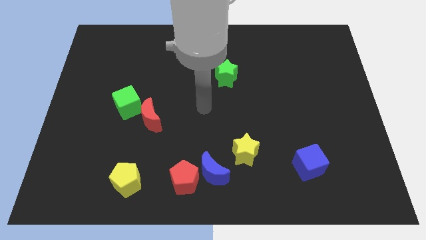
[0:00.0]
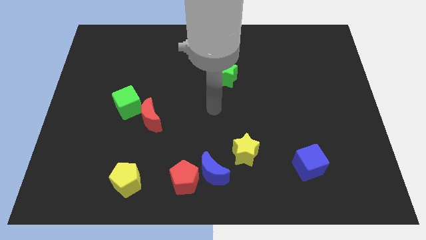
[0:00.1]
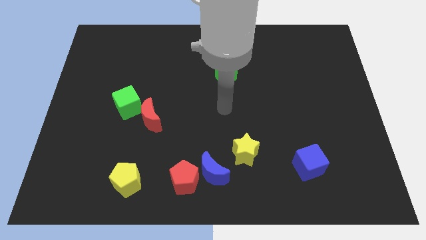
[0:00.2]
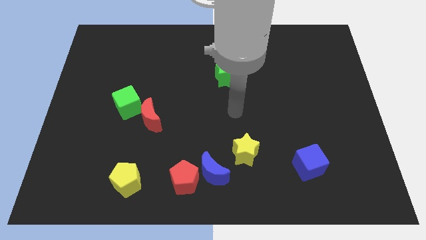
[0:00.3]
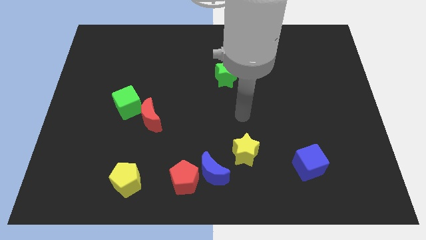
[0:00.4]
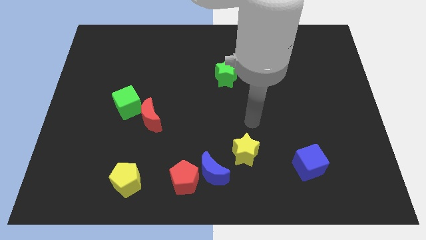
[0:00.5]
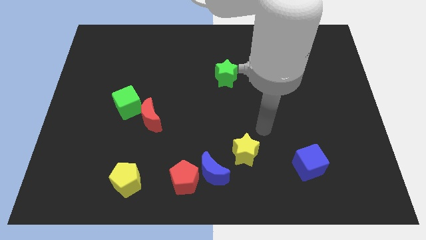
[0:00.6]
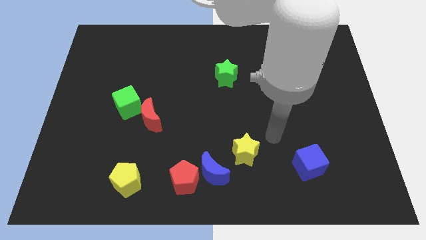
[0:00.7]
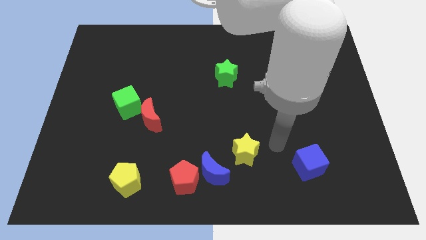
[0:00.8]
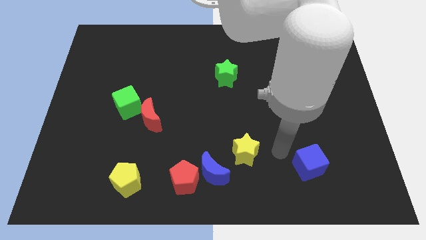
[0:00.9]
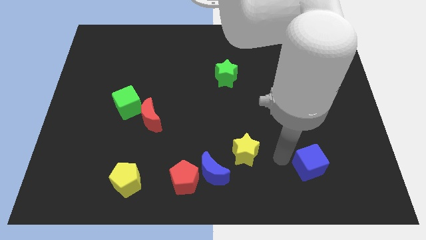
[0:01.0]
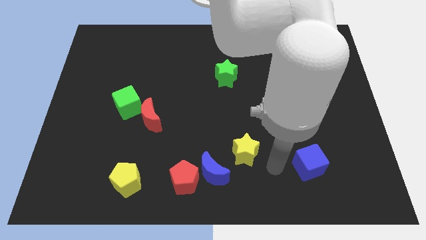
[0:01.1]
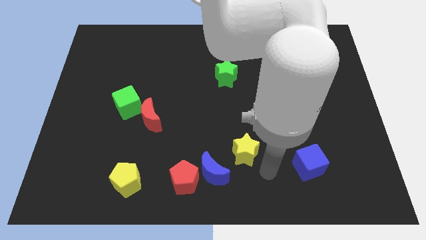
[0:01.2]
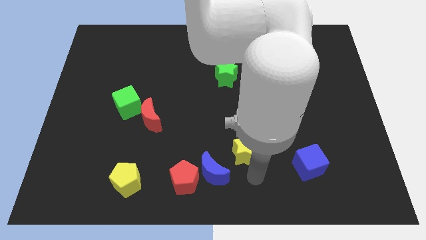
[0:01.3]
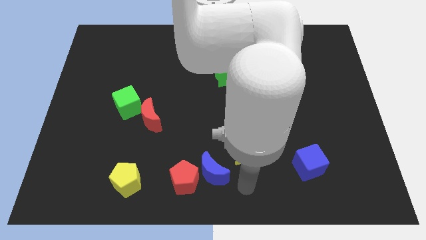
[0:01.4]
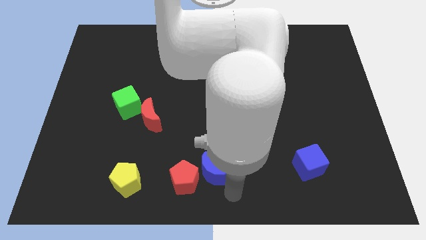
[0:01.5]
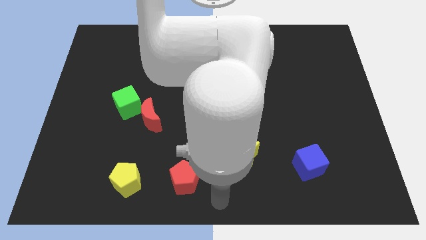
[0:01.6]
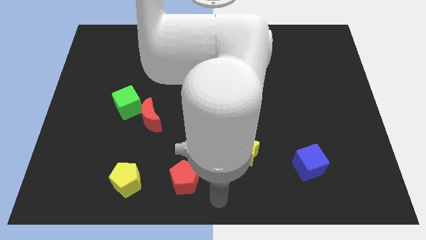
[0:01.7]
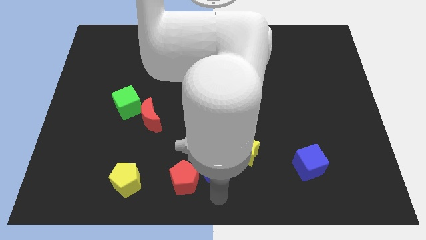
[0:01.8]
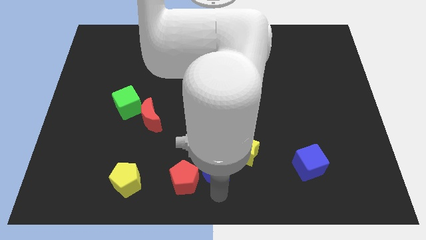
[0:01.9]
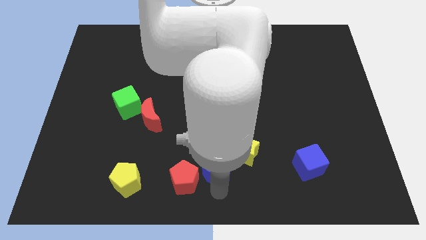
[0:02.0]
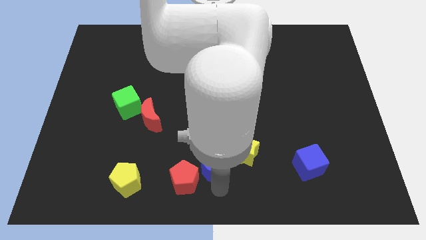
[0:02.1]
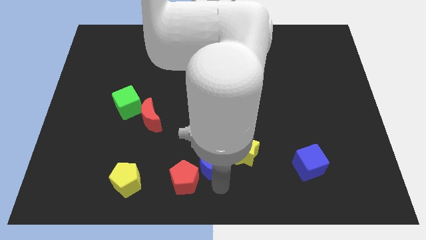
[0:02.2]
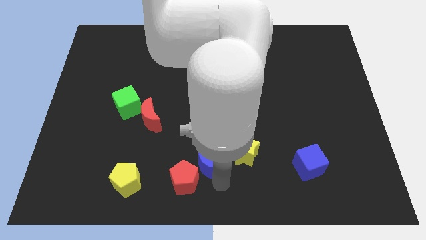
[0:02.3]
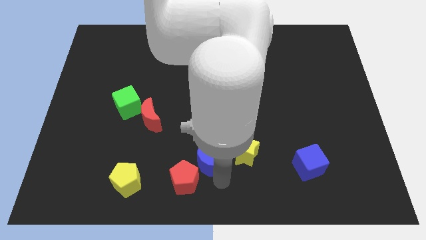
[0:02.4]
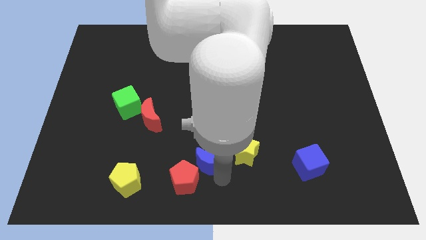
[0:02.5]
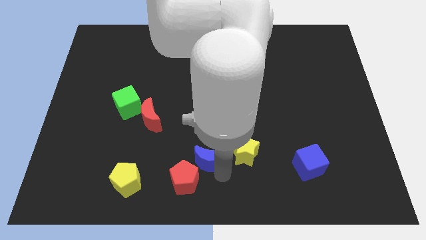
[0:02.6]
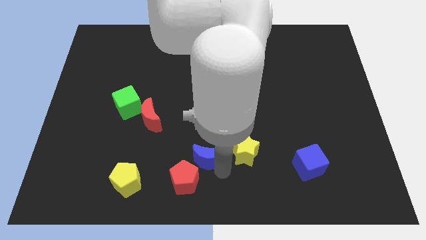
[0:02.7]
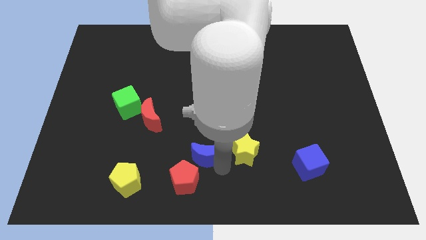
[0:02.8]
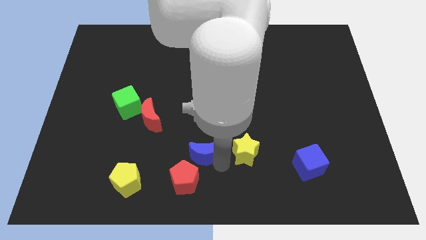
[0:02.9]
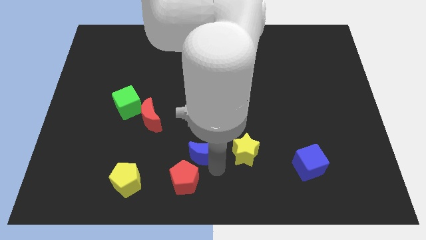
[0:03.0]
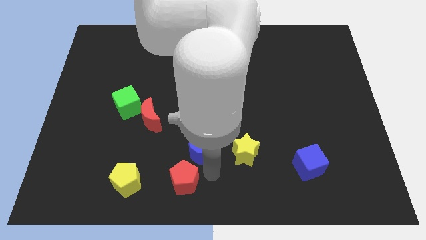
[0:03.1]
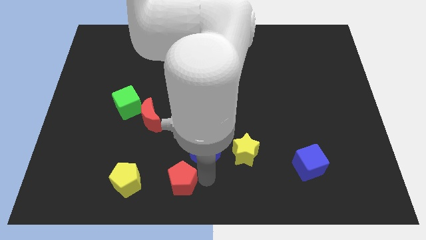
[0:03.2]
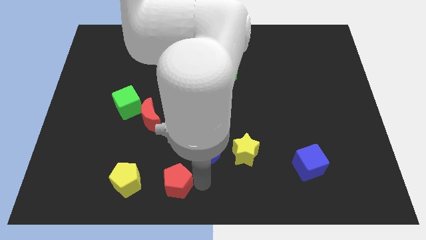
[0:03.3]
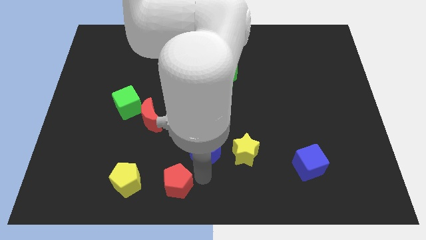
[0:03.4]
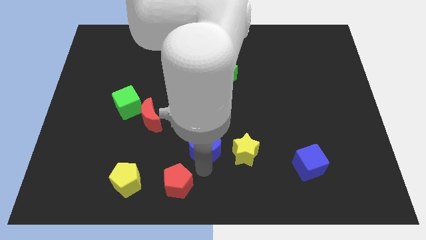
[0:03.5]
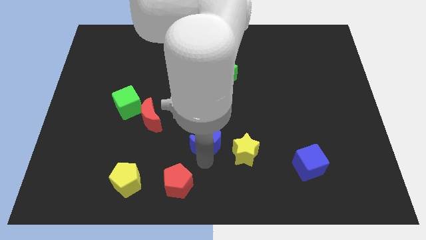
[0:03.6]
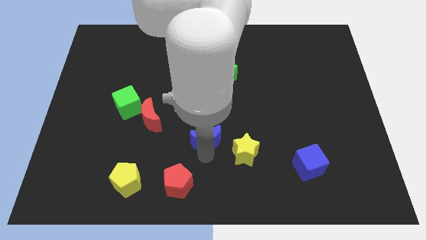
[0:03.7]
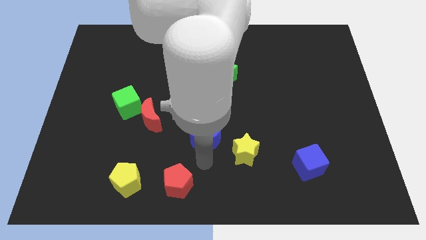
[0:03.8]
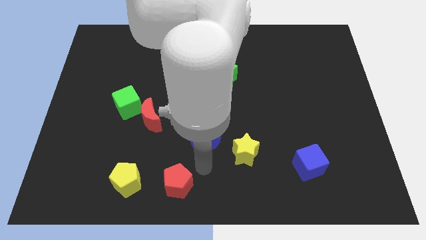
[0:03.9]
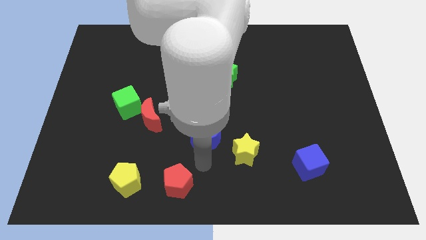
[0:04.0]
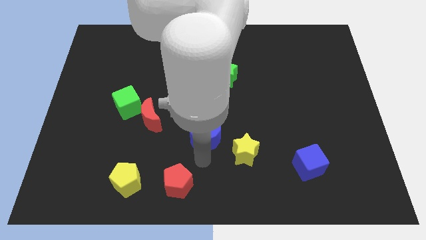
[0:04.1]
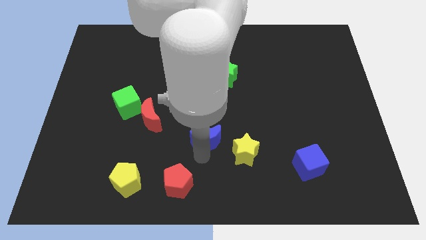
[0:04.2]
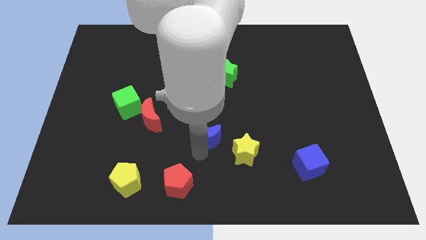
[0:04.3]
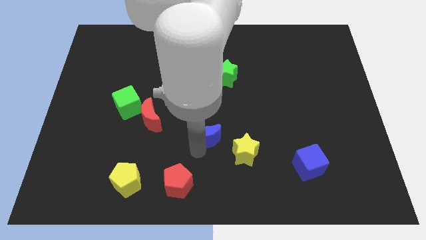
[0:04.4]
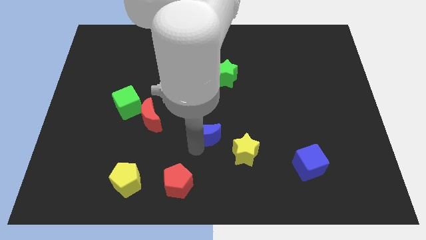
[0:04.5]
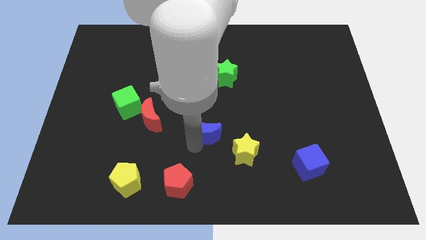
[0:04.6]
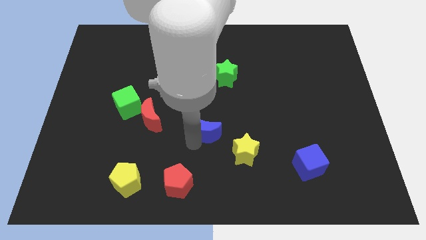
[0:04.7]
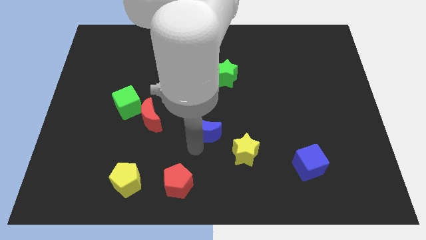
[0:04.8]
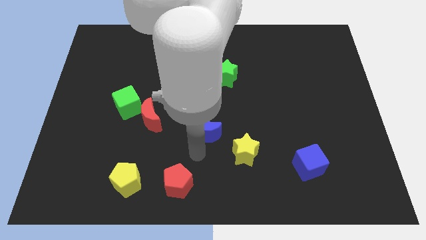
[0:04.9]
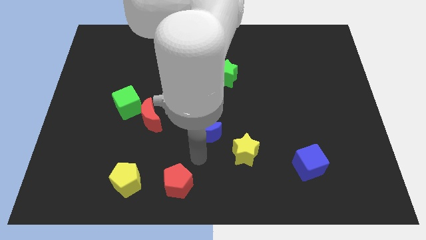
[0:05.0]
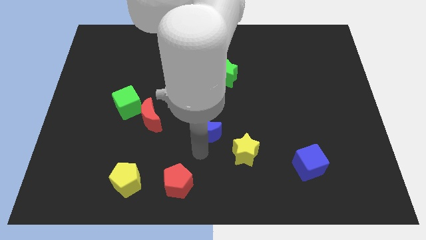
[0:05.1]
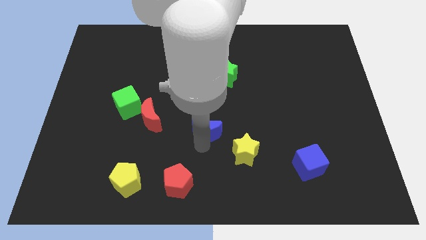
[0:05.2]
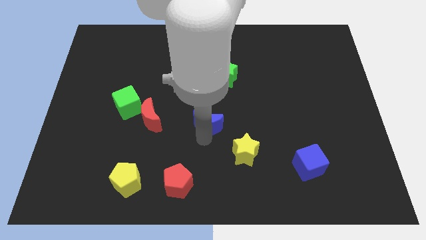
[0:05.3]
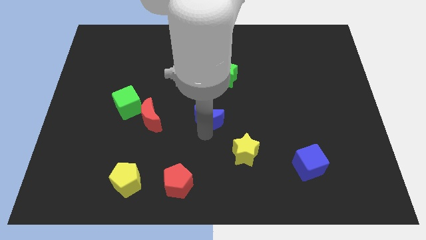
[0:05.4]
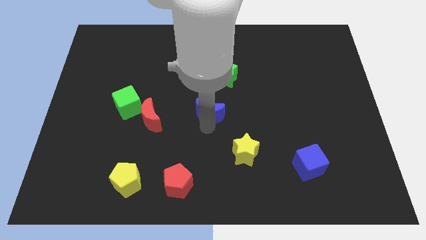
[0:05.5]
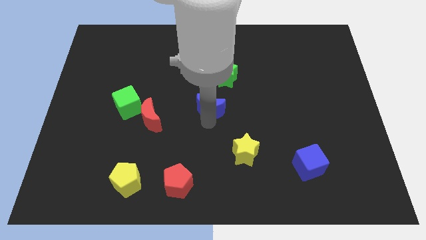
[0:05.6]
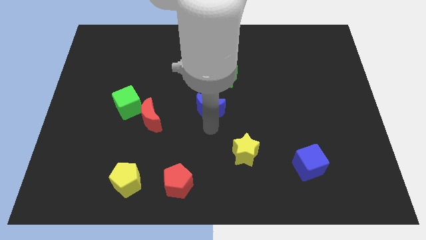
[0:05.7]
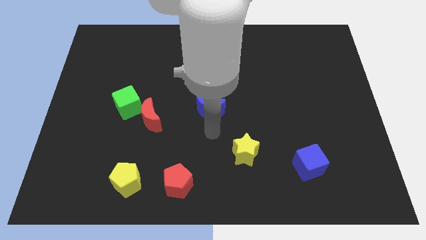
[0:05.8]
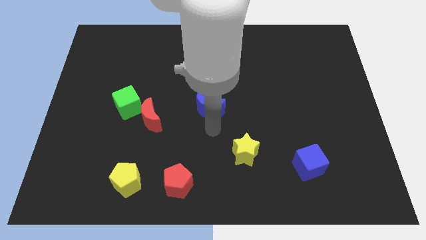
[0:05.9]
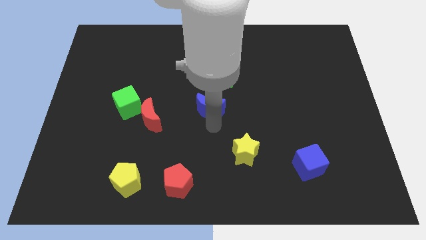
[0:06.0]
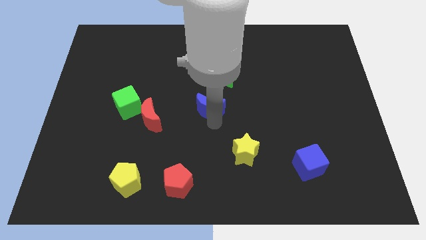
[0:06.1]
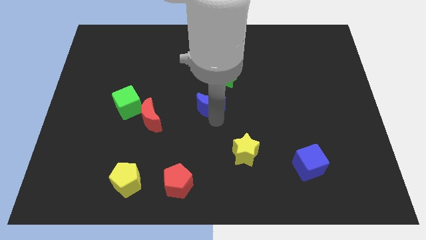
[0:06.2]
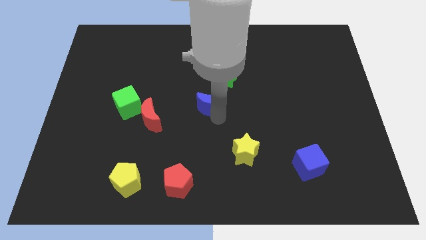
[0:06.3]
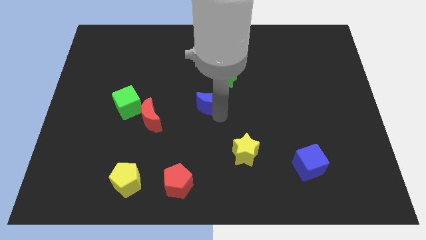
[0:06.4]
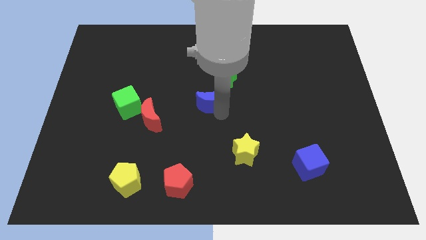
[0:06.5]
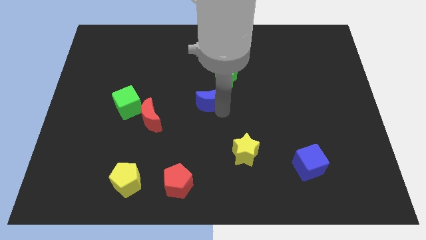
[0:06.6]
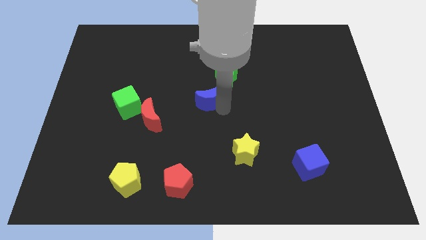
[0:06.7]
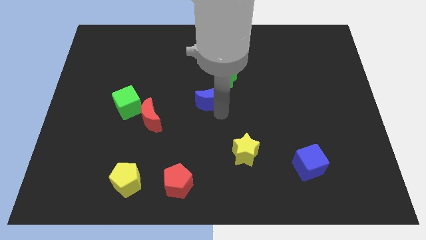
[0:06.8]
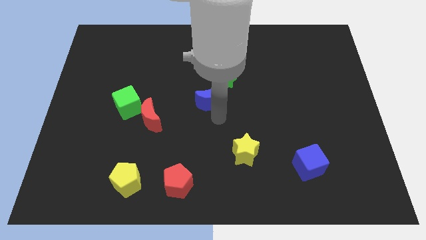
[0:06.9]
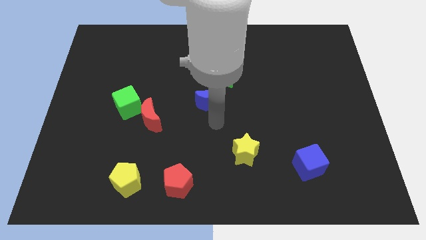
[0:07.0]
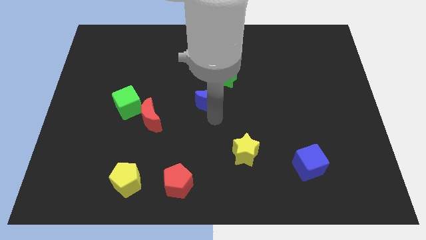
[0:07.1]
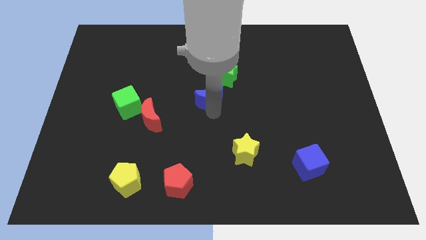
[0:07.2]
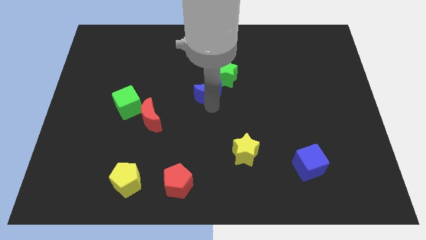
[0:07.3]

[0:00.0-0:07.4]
move the blue moon upwards
